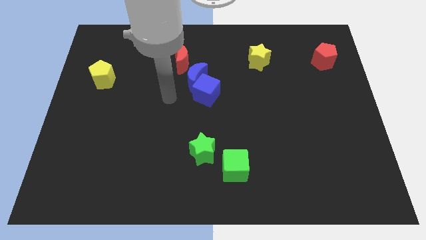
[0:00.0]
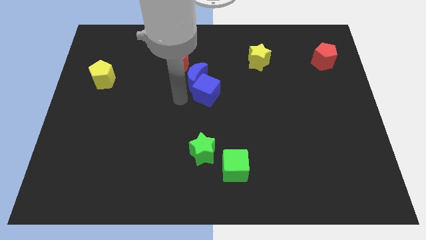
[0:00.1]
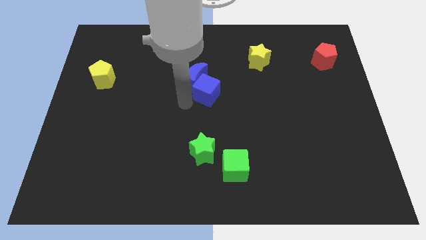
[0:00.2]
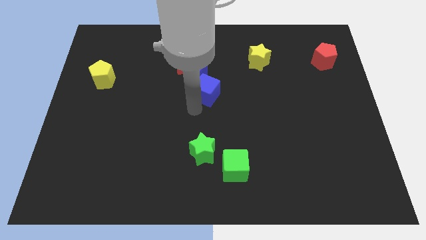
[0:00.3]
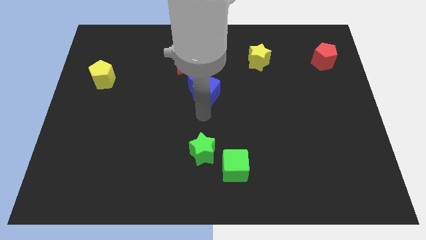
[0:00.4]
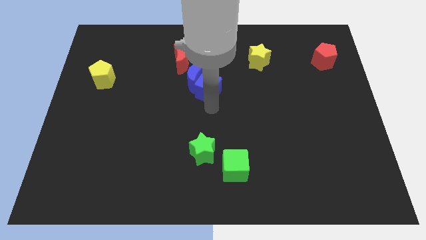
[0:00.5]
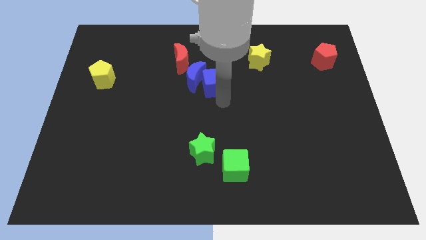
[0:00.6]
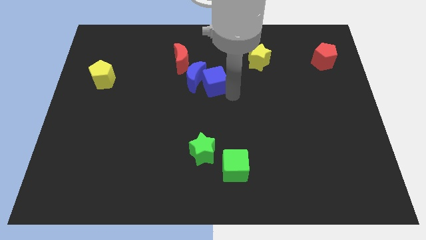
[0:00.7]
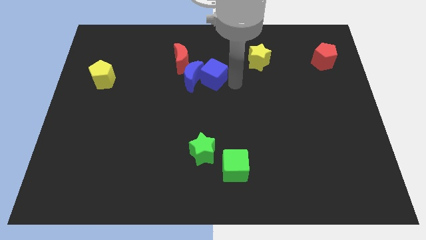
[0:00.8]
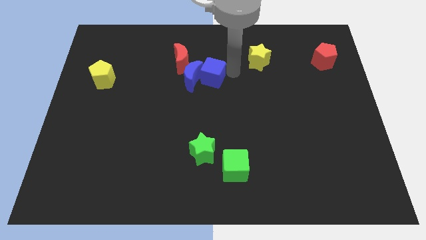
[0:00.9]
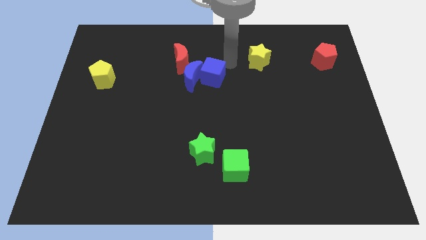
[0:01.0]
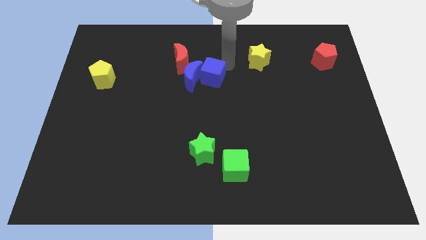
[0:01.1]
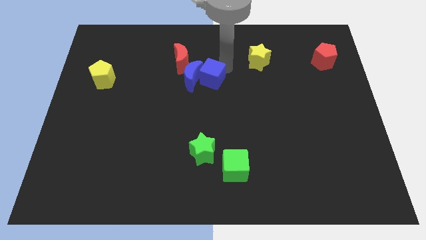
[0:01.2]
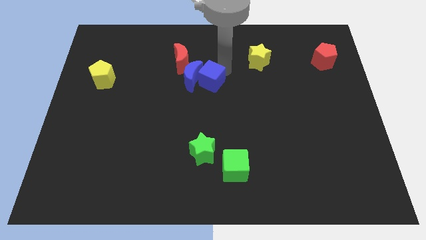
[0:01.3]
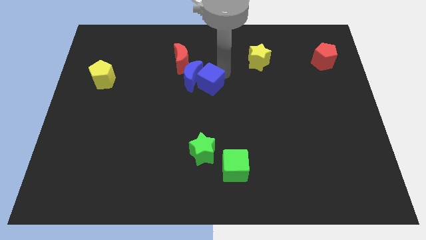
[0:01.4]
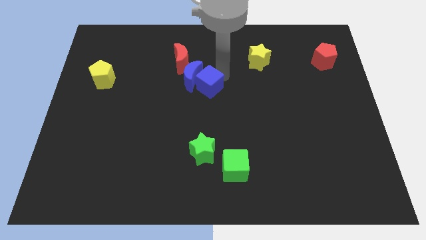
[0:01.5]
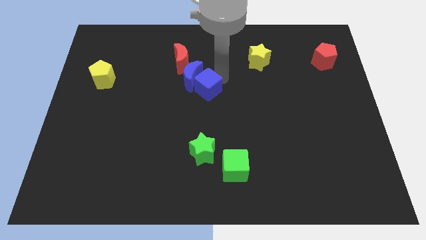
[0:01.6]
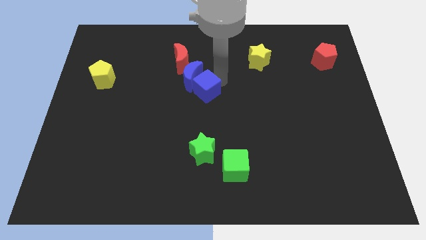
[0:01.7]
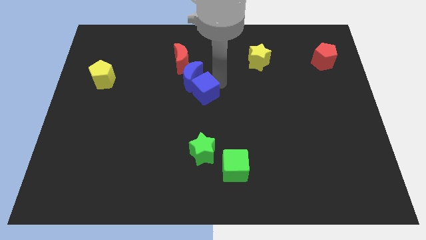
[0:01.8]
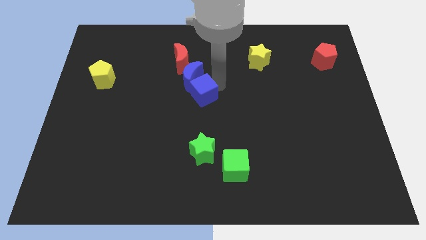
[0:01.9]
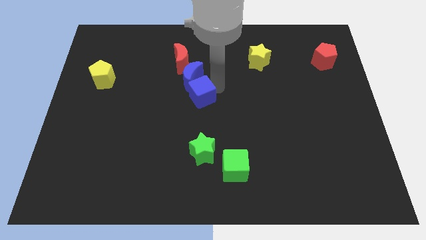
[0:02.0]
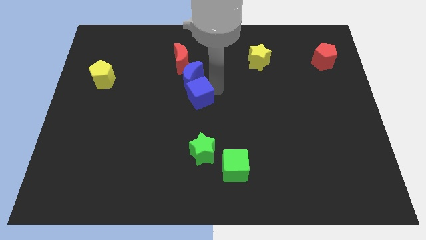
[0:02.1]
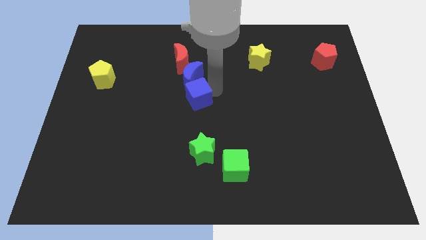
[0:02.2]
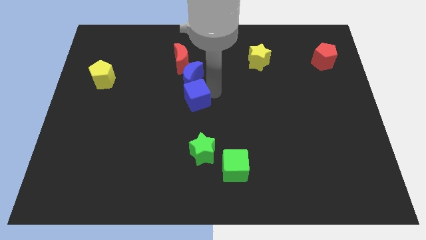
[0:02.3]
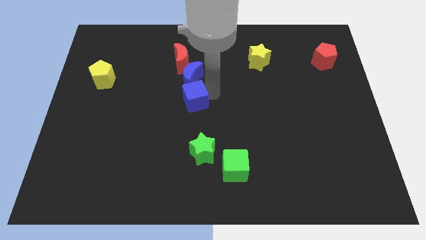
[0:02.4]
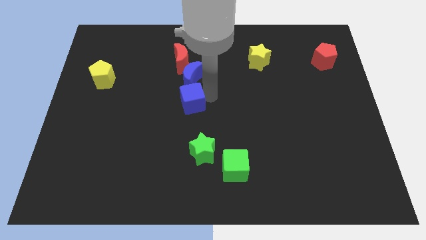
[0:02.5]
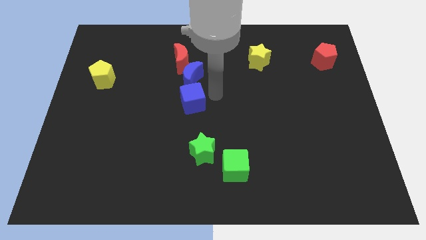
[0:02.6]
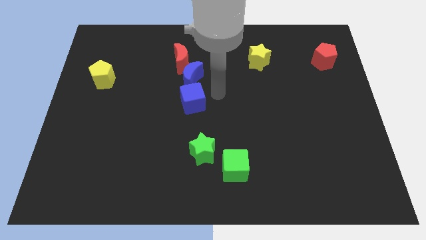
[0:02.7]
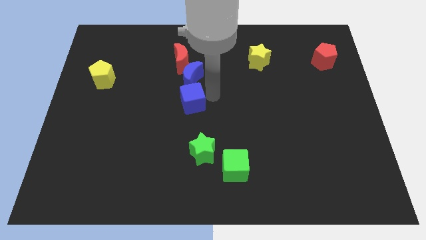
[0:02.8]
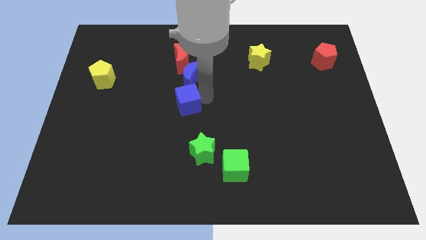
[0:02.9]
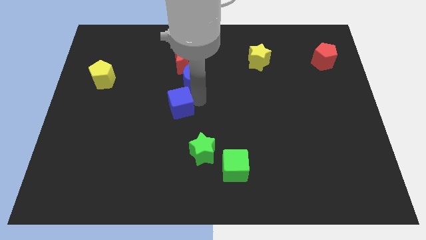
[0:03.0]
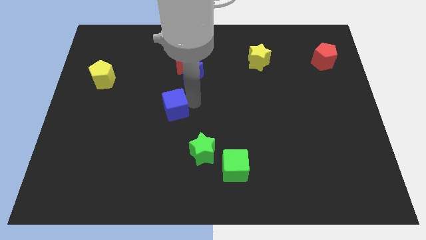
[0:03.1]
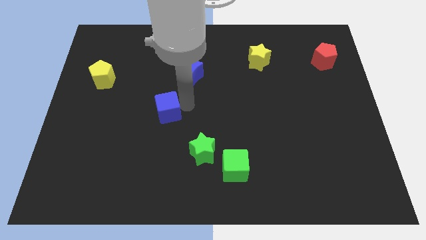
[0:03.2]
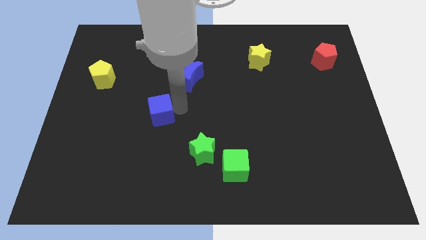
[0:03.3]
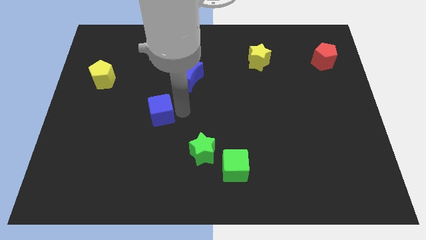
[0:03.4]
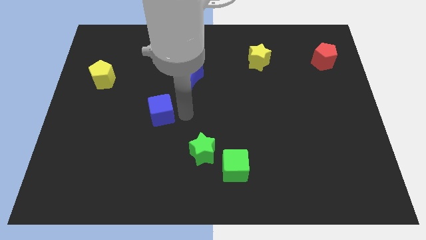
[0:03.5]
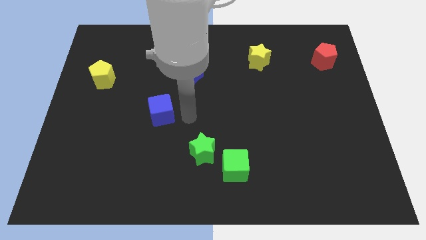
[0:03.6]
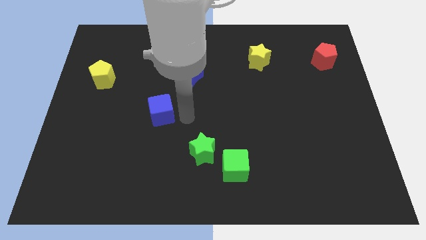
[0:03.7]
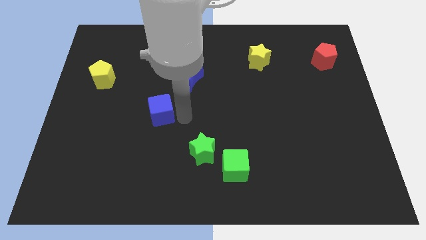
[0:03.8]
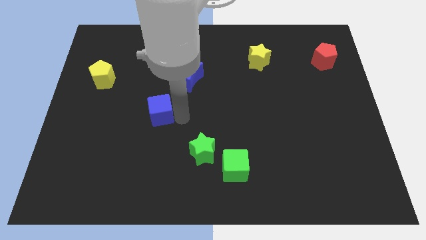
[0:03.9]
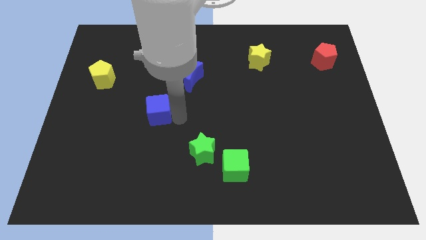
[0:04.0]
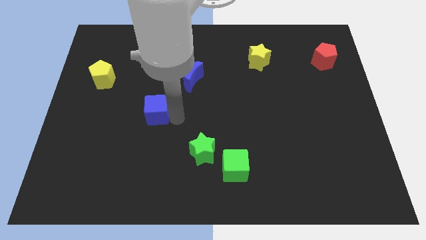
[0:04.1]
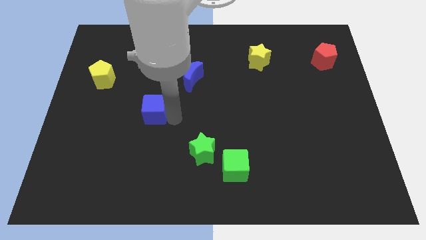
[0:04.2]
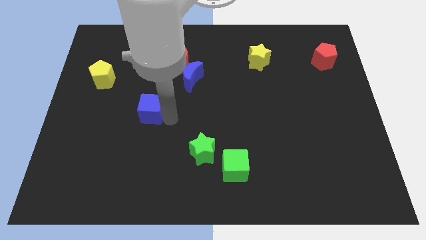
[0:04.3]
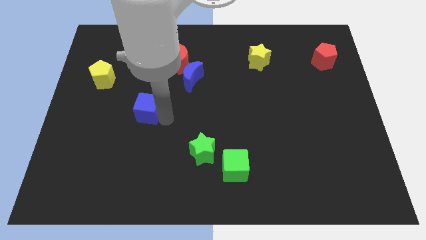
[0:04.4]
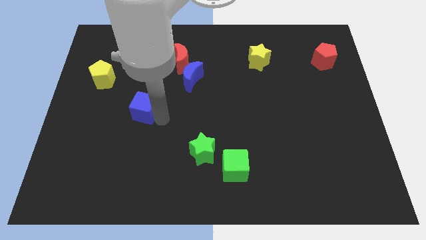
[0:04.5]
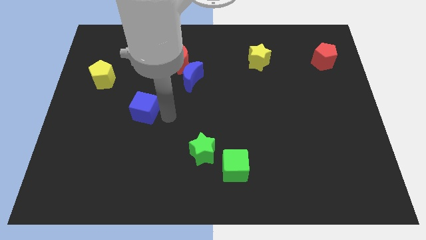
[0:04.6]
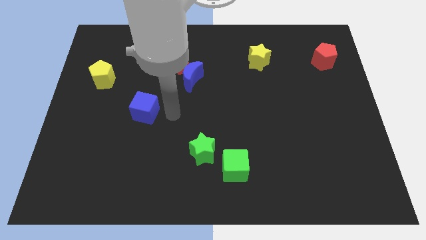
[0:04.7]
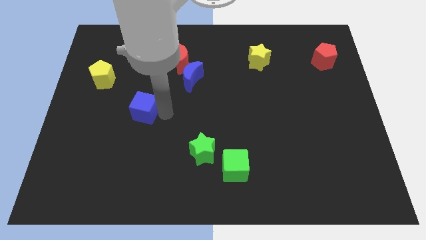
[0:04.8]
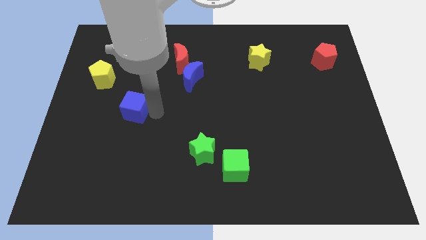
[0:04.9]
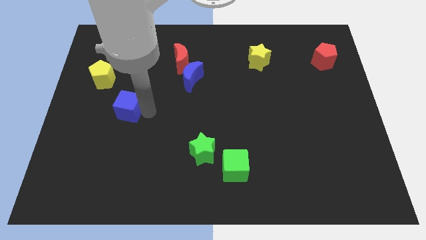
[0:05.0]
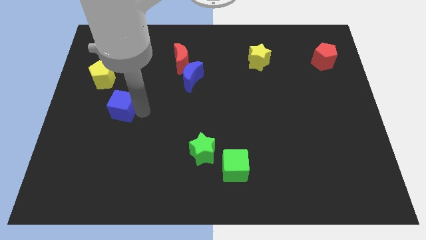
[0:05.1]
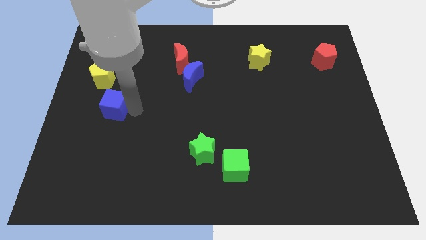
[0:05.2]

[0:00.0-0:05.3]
slide the blue cube to the bottom side of the yellow pentagon

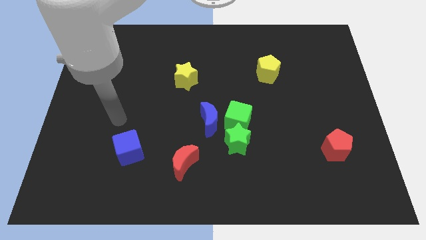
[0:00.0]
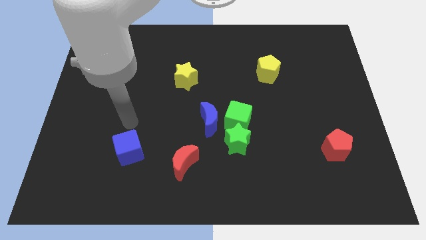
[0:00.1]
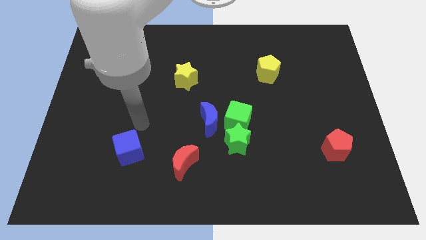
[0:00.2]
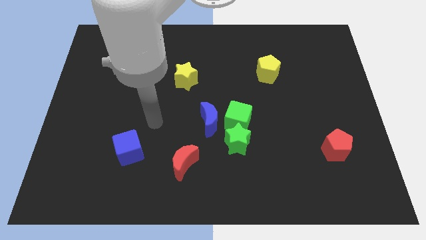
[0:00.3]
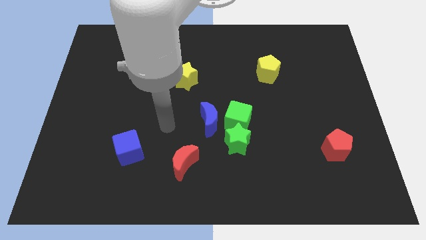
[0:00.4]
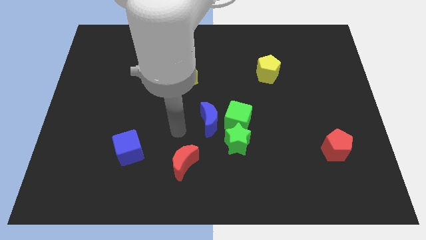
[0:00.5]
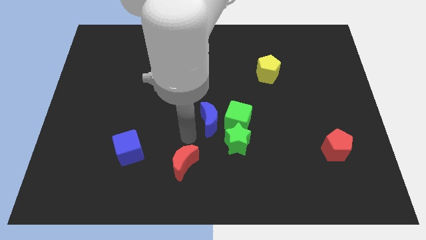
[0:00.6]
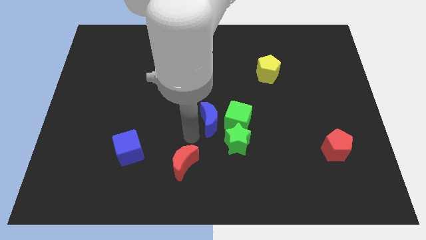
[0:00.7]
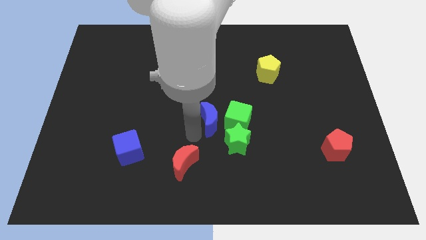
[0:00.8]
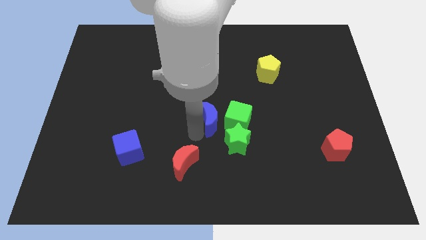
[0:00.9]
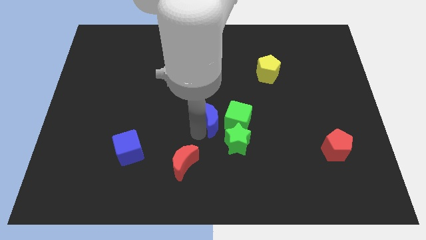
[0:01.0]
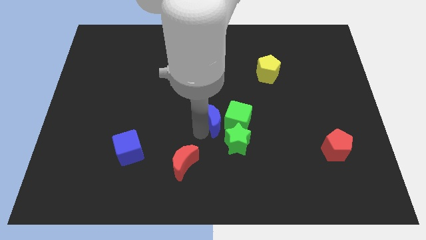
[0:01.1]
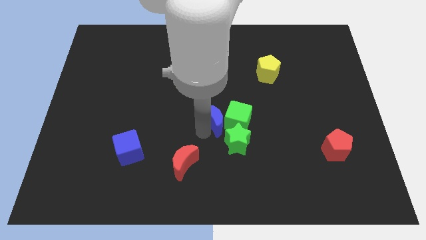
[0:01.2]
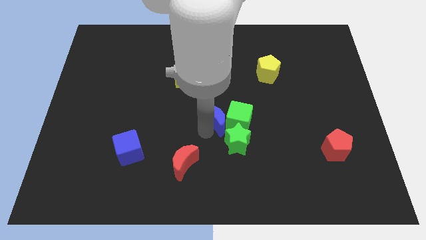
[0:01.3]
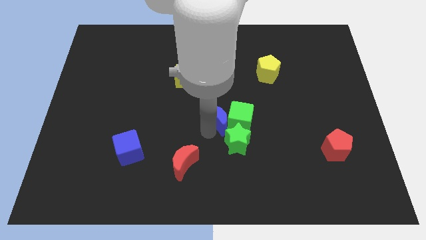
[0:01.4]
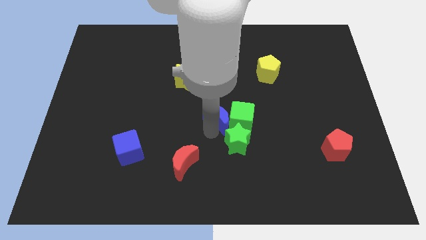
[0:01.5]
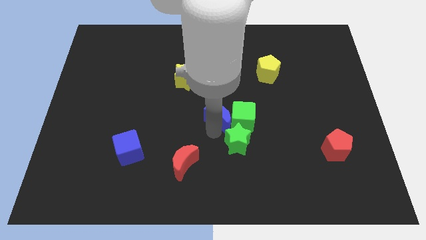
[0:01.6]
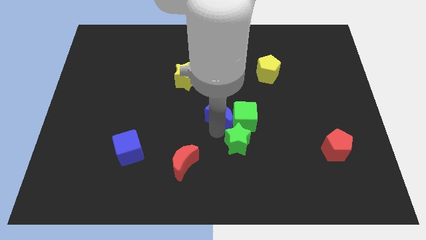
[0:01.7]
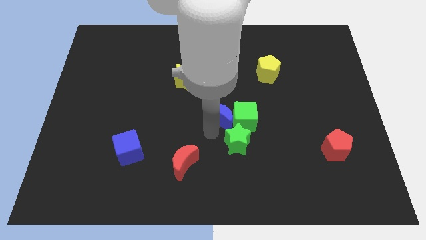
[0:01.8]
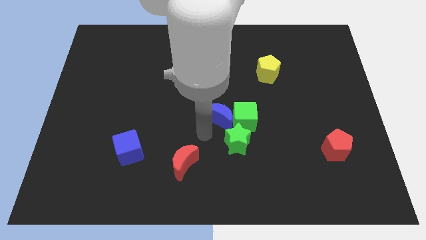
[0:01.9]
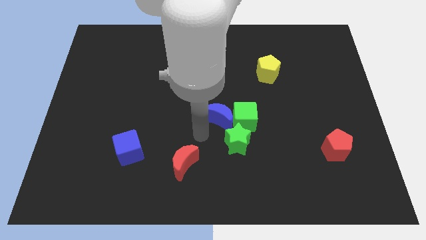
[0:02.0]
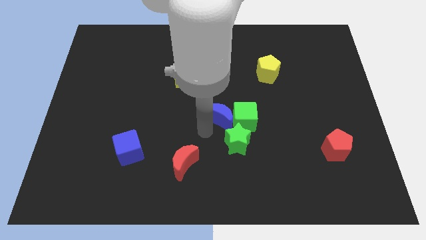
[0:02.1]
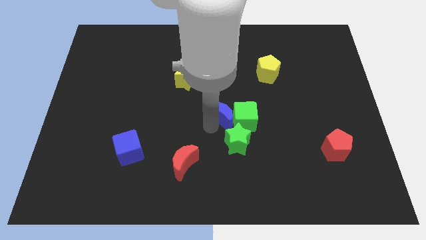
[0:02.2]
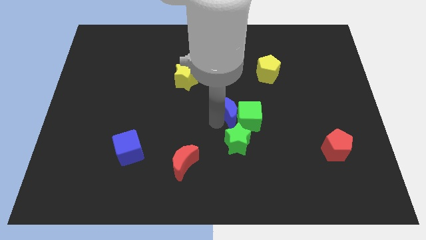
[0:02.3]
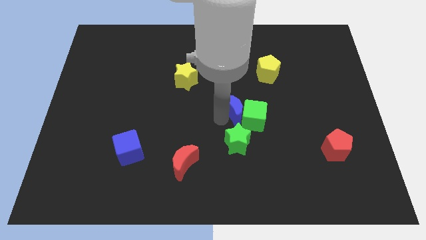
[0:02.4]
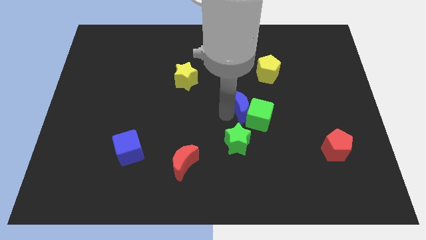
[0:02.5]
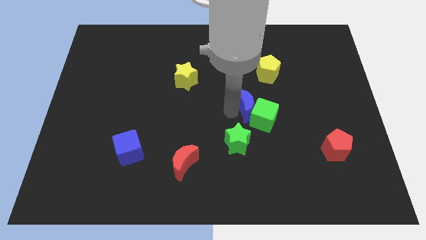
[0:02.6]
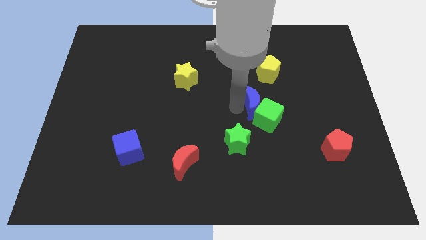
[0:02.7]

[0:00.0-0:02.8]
move the blue moon to the top right side of the green star
